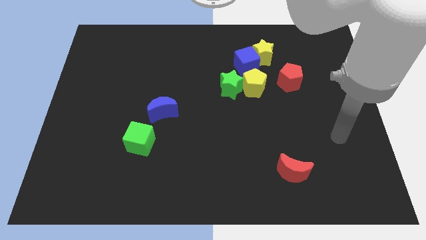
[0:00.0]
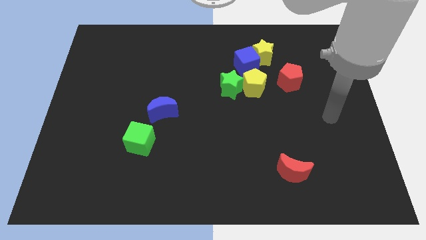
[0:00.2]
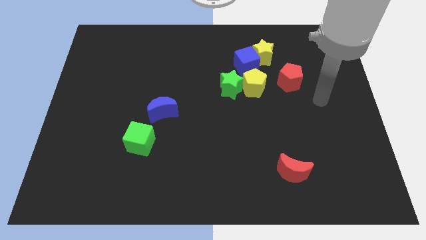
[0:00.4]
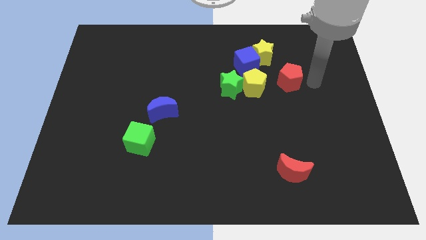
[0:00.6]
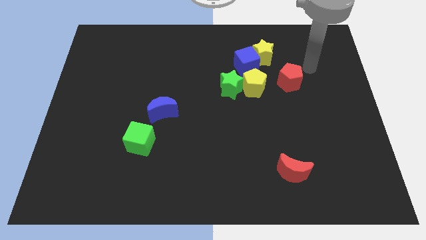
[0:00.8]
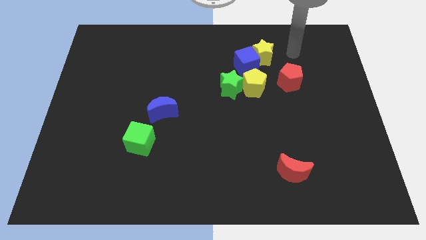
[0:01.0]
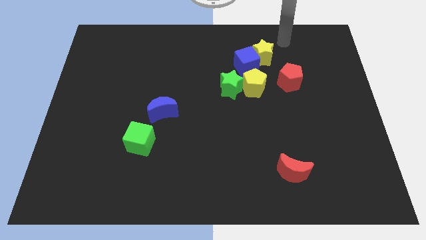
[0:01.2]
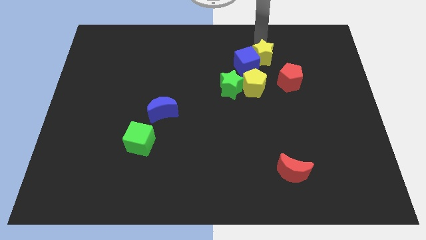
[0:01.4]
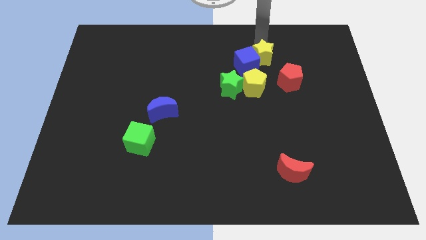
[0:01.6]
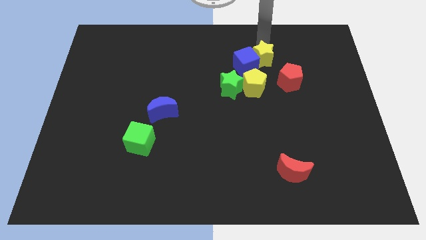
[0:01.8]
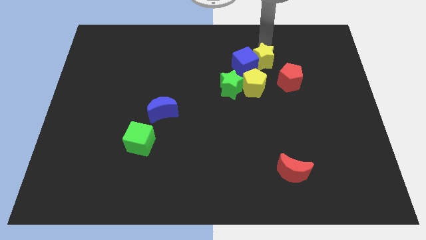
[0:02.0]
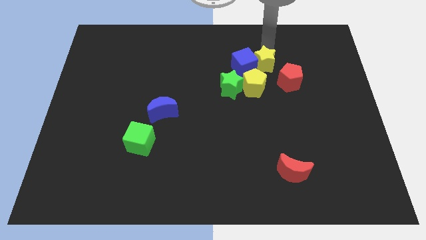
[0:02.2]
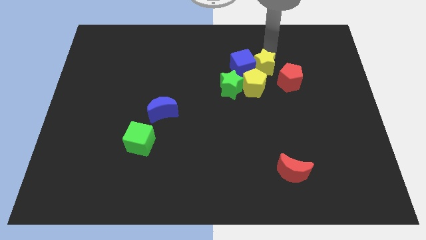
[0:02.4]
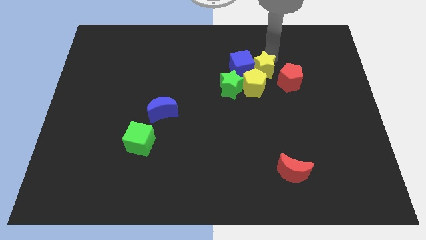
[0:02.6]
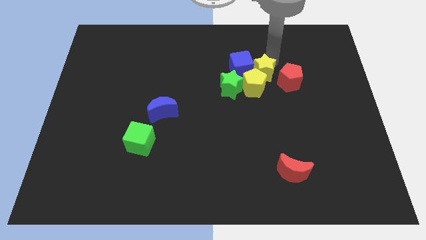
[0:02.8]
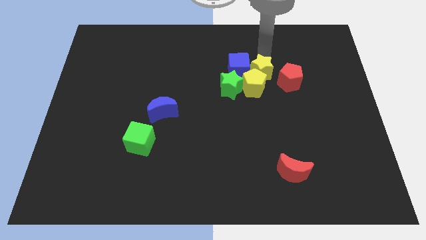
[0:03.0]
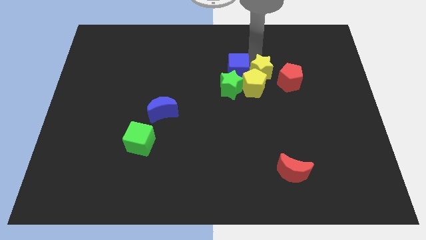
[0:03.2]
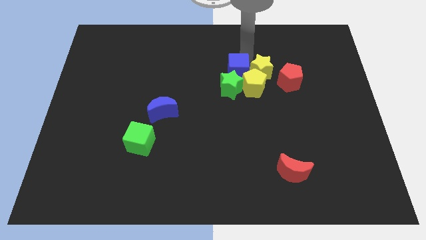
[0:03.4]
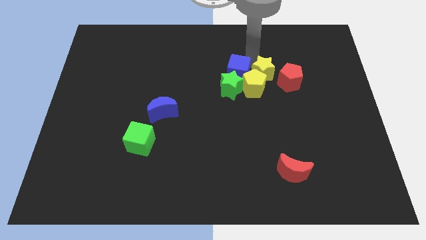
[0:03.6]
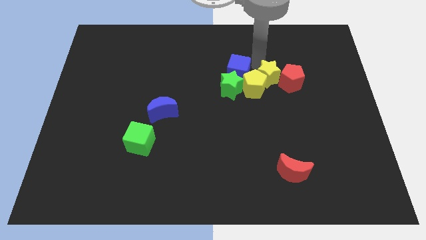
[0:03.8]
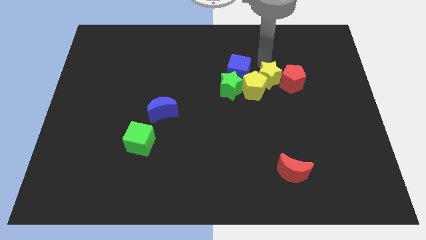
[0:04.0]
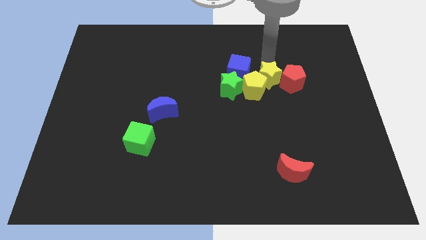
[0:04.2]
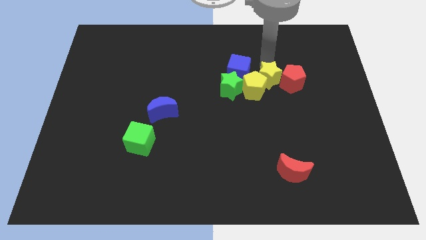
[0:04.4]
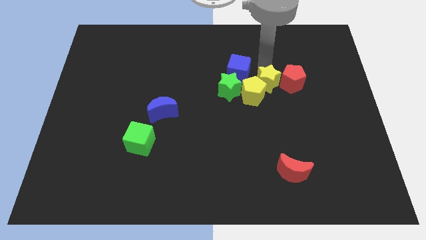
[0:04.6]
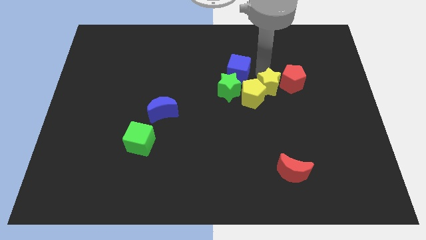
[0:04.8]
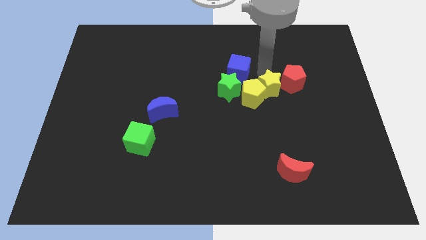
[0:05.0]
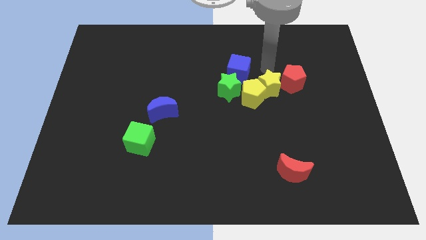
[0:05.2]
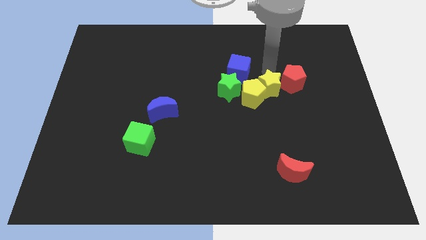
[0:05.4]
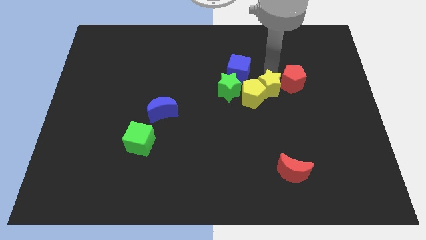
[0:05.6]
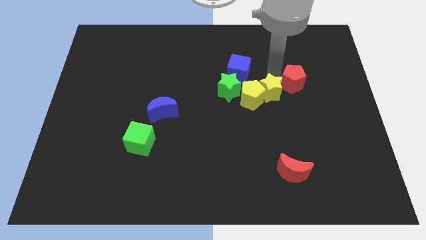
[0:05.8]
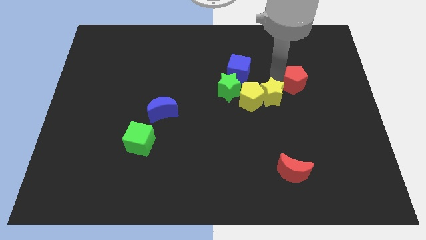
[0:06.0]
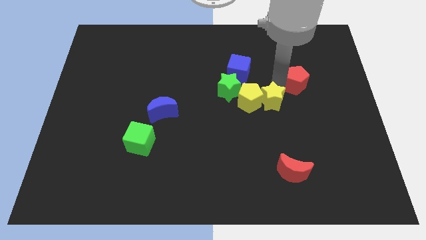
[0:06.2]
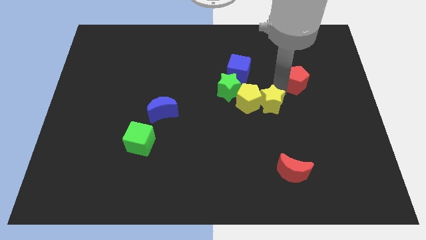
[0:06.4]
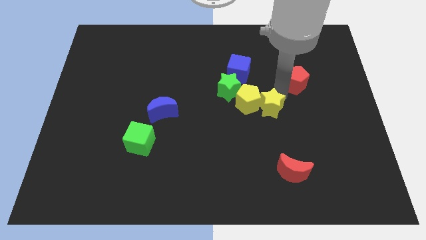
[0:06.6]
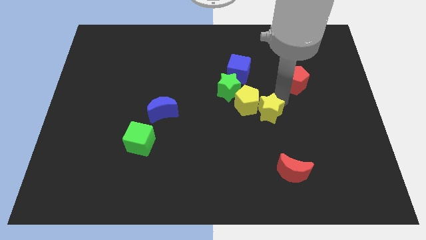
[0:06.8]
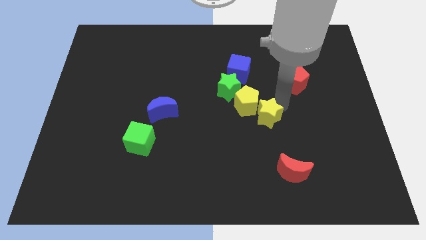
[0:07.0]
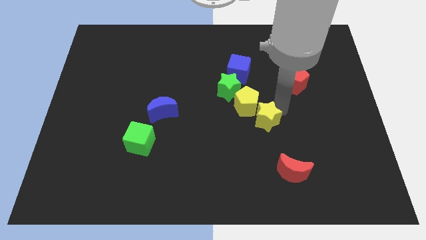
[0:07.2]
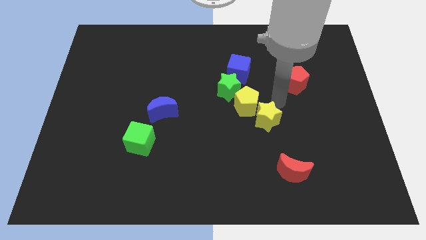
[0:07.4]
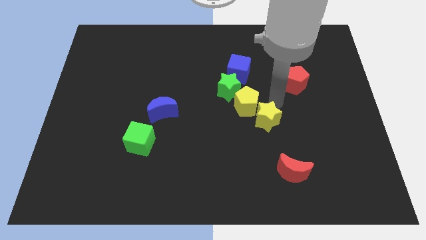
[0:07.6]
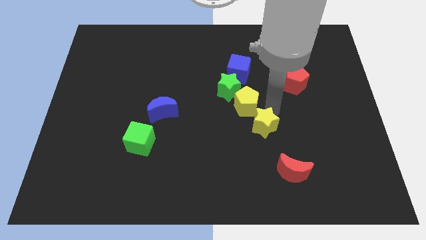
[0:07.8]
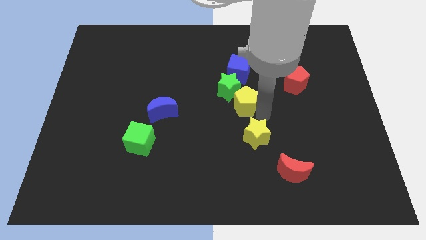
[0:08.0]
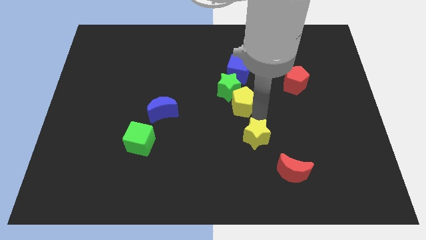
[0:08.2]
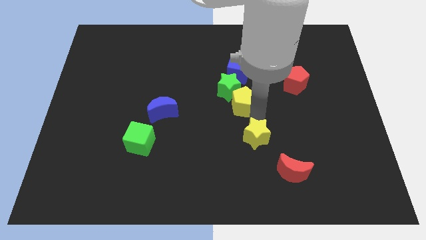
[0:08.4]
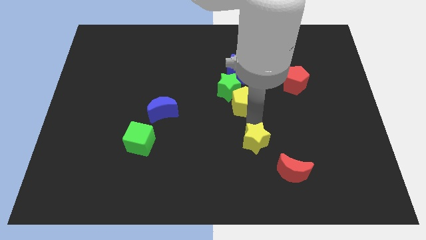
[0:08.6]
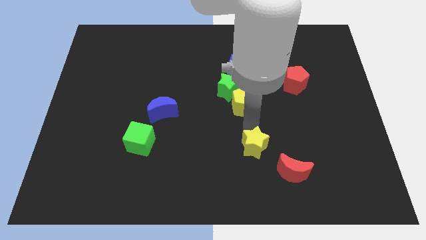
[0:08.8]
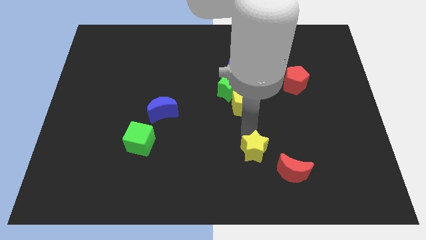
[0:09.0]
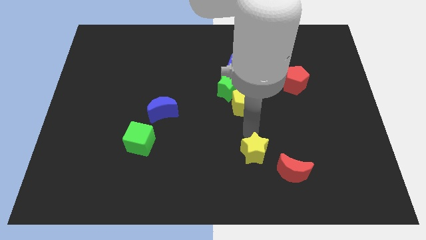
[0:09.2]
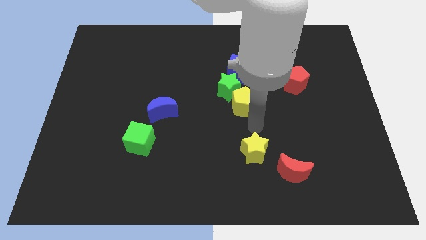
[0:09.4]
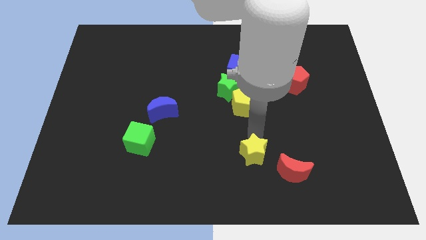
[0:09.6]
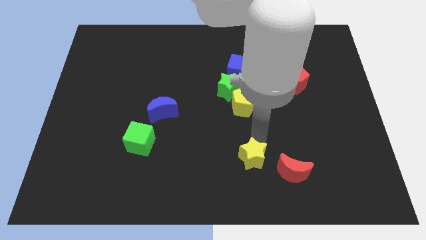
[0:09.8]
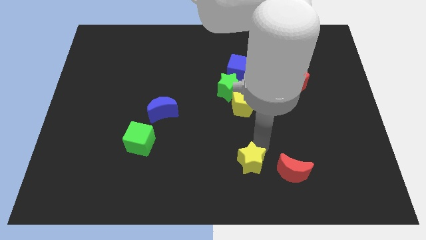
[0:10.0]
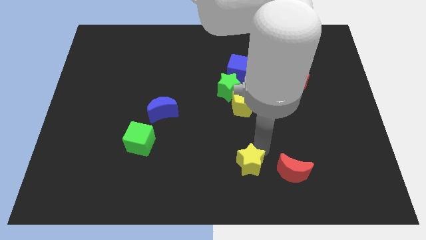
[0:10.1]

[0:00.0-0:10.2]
push the yellow star to the bottom side
